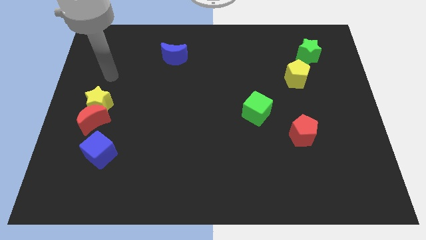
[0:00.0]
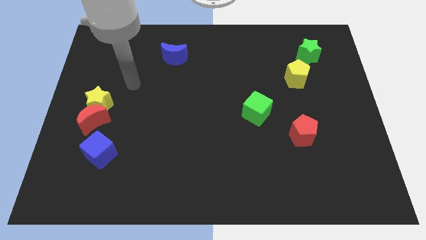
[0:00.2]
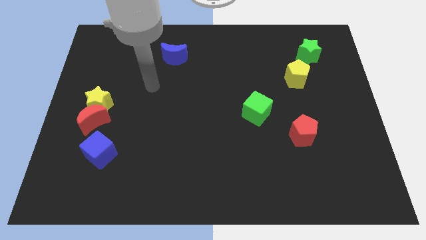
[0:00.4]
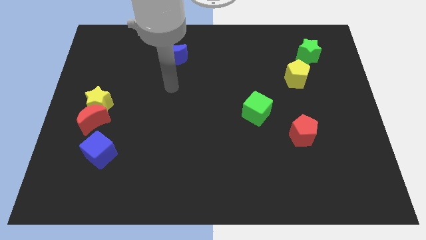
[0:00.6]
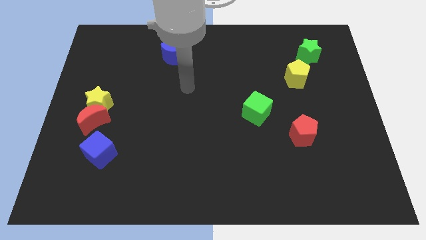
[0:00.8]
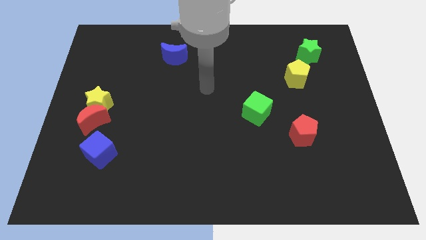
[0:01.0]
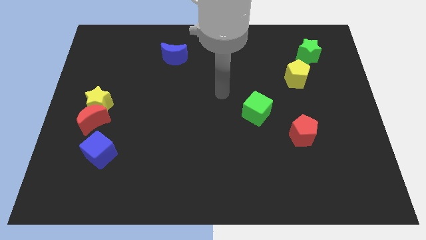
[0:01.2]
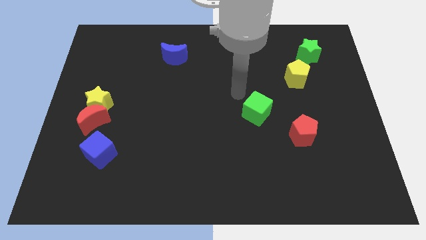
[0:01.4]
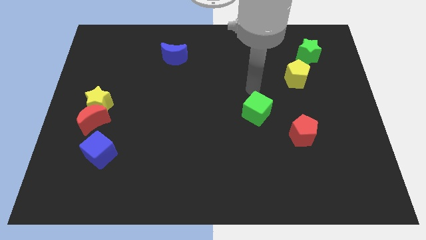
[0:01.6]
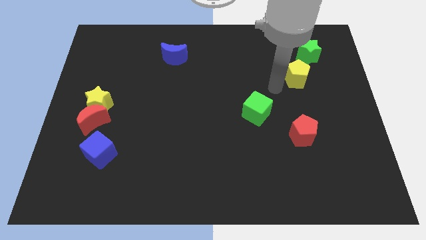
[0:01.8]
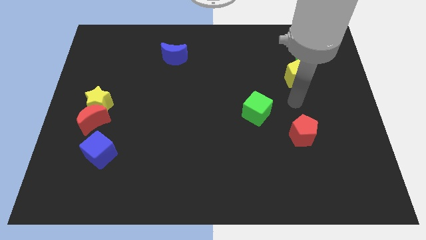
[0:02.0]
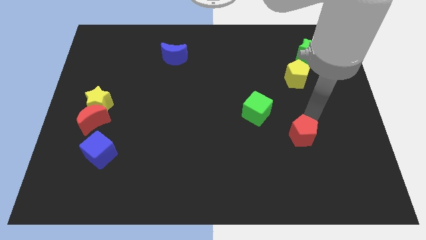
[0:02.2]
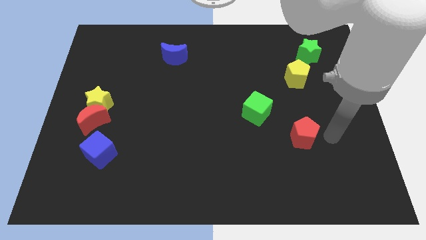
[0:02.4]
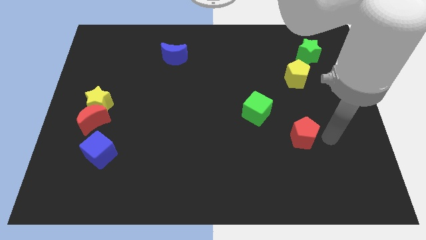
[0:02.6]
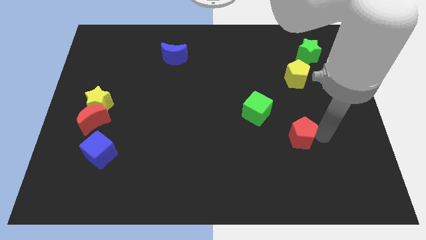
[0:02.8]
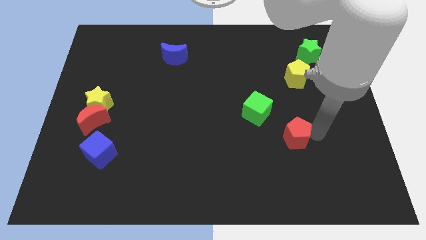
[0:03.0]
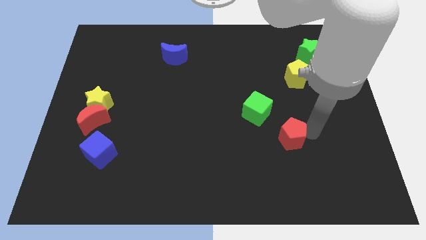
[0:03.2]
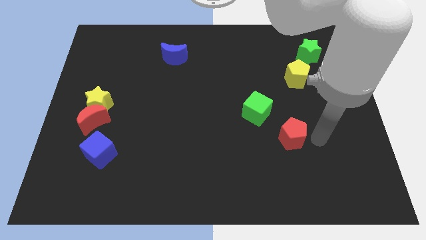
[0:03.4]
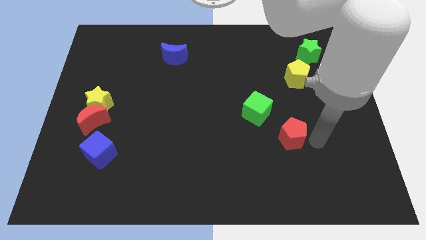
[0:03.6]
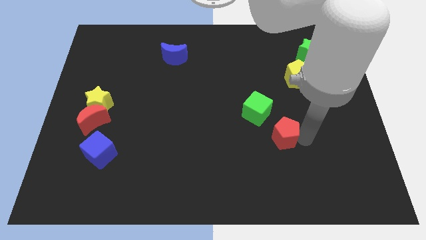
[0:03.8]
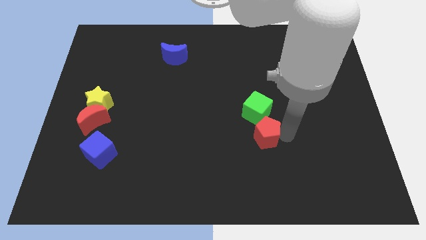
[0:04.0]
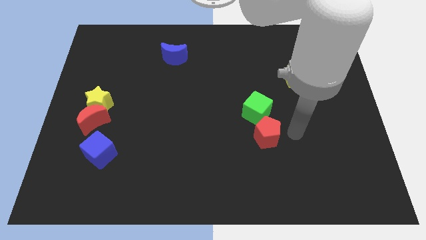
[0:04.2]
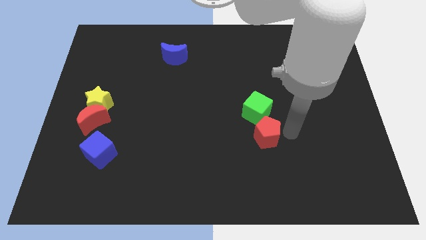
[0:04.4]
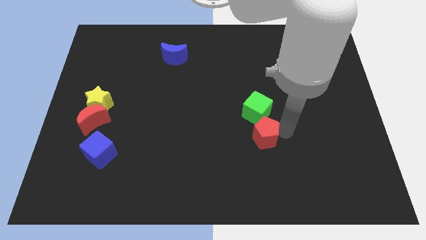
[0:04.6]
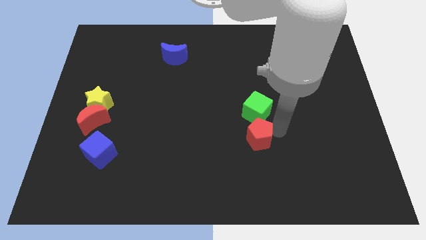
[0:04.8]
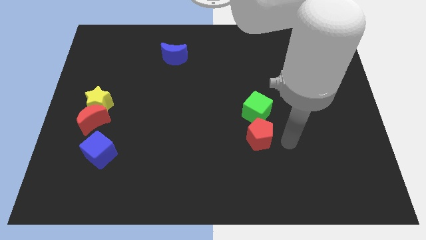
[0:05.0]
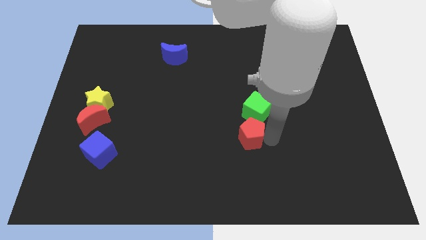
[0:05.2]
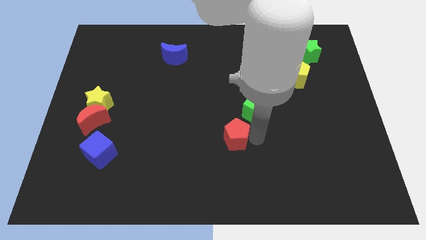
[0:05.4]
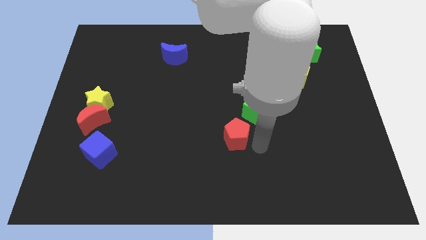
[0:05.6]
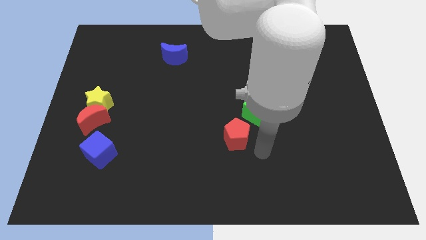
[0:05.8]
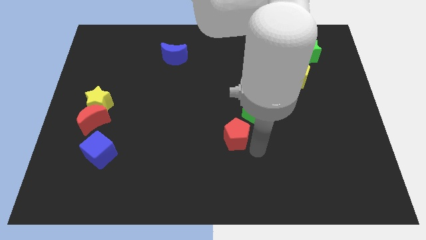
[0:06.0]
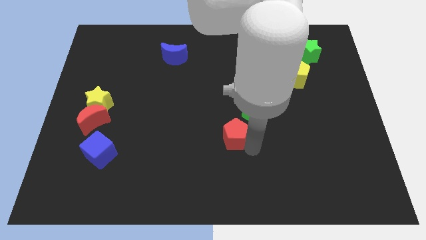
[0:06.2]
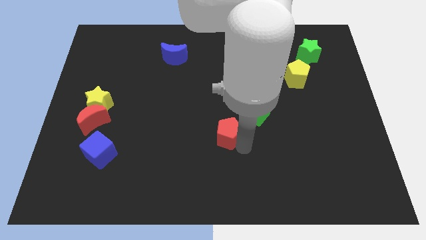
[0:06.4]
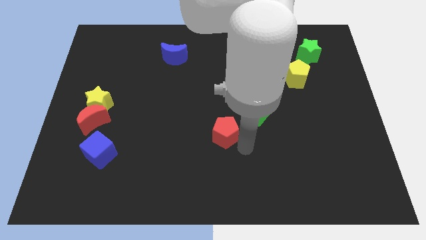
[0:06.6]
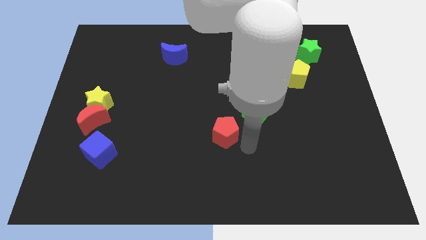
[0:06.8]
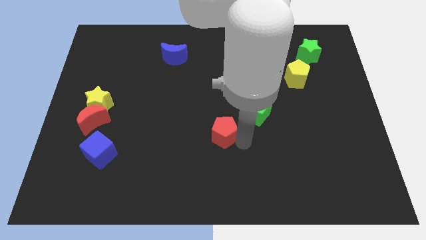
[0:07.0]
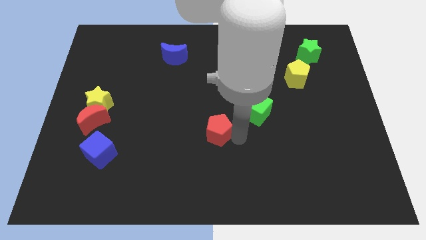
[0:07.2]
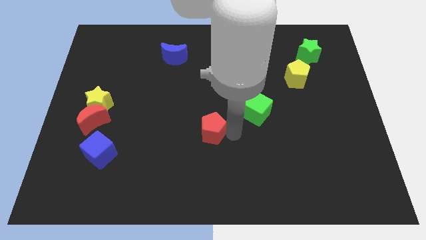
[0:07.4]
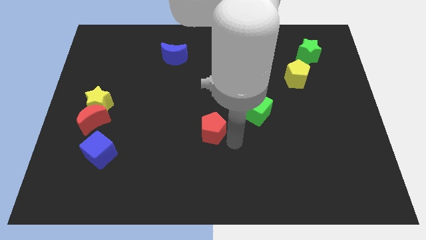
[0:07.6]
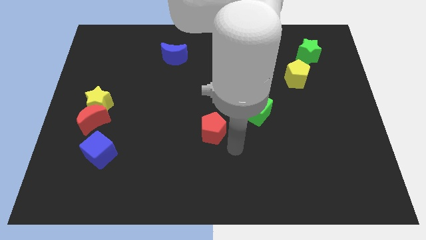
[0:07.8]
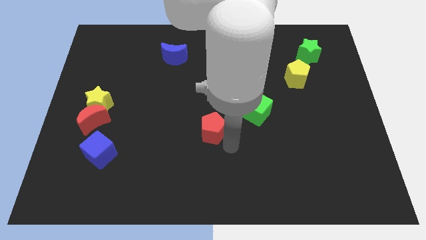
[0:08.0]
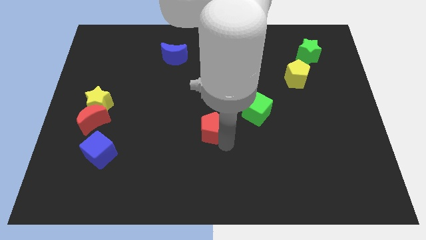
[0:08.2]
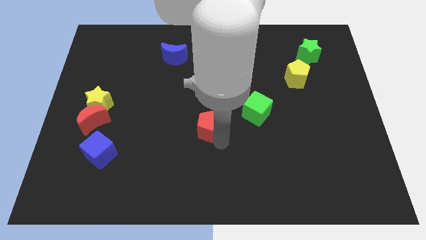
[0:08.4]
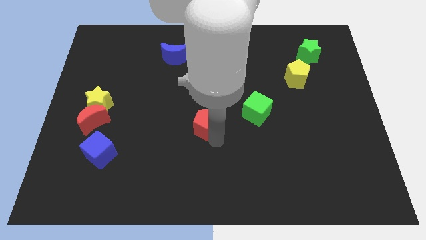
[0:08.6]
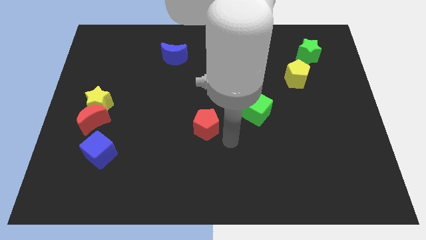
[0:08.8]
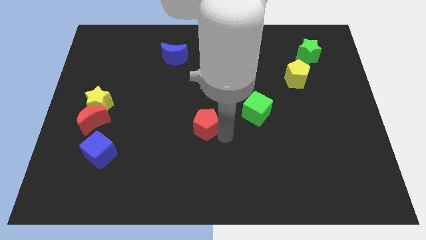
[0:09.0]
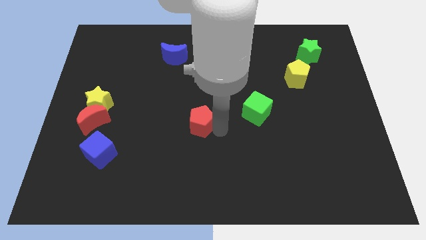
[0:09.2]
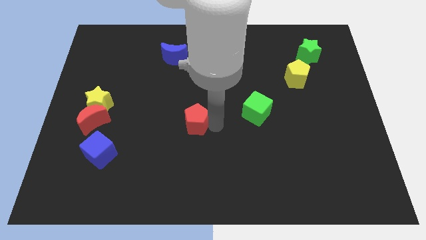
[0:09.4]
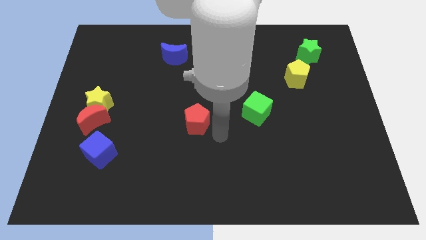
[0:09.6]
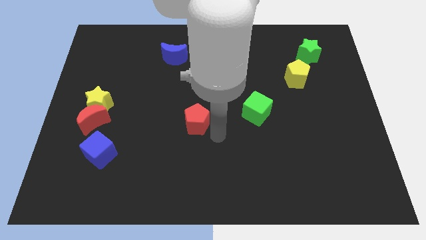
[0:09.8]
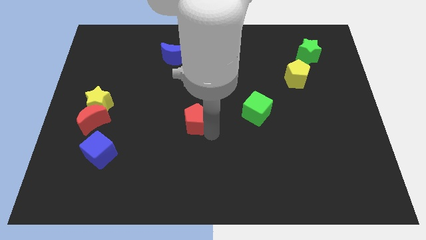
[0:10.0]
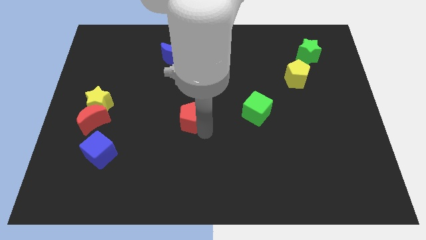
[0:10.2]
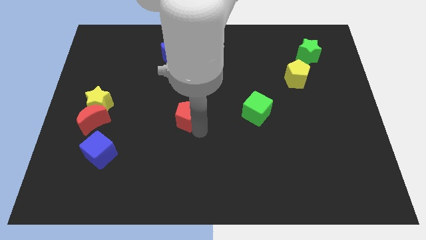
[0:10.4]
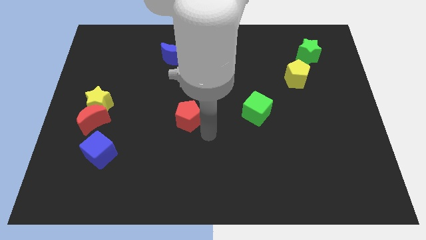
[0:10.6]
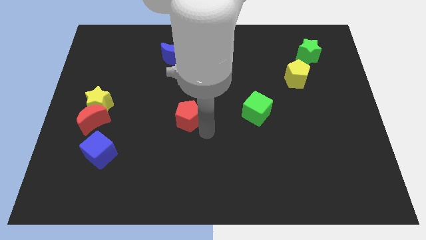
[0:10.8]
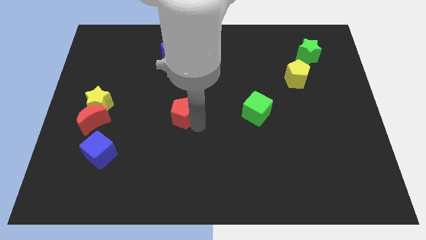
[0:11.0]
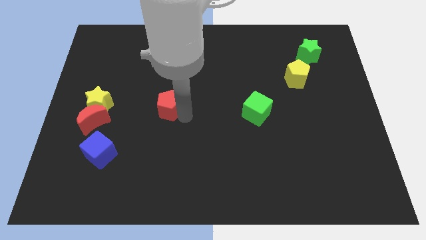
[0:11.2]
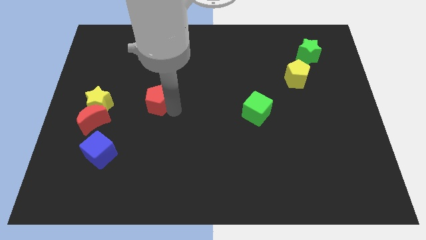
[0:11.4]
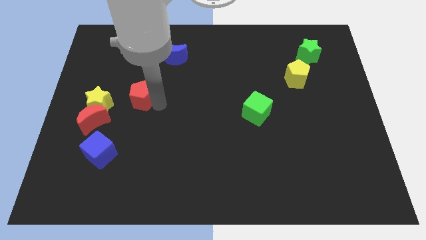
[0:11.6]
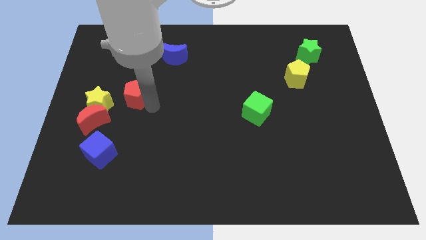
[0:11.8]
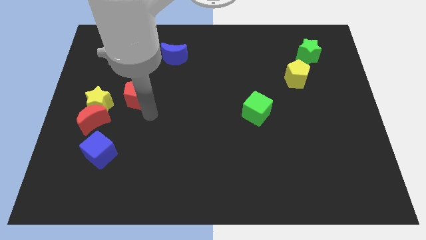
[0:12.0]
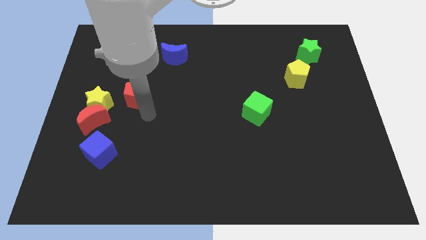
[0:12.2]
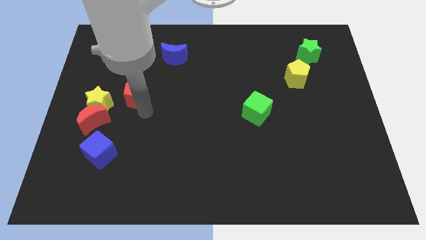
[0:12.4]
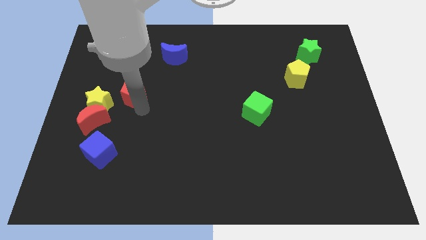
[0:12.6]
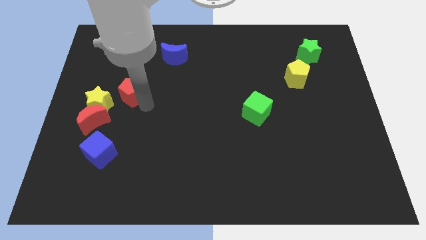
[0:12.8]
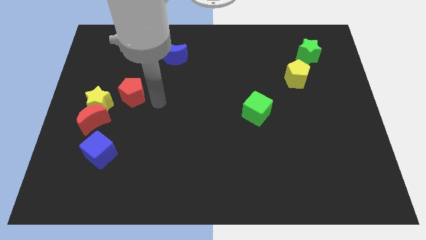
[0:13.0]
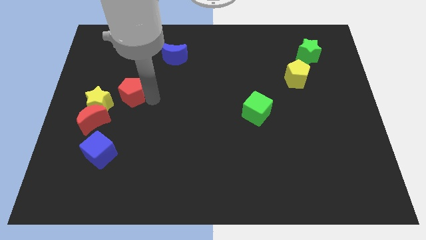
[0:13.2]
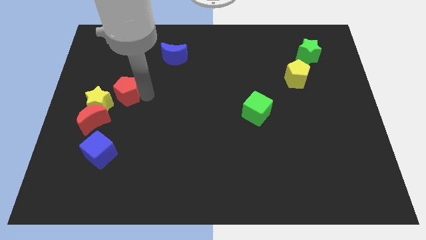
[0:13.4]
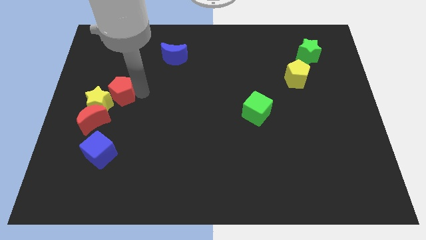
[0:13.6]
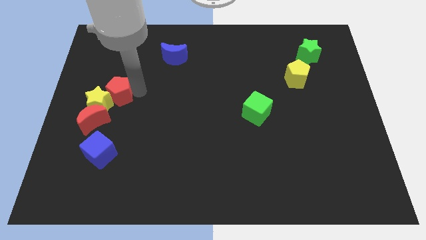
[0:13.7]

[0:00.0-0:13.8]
push the red pentagon to the top of the red moon

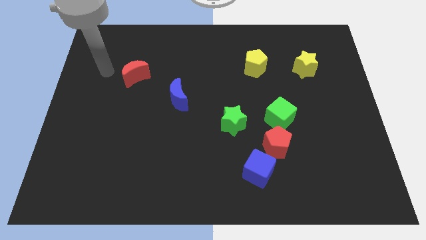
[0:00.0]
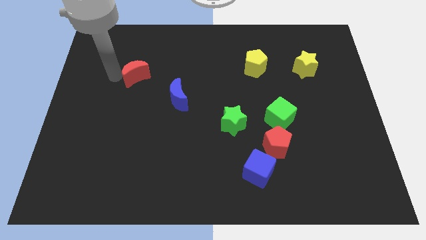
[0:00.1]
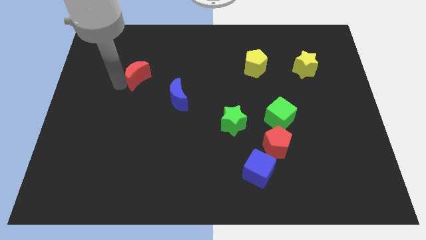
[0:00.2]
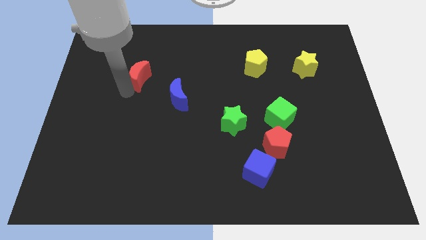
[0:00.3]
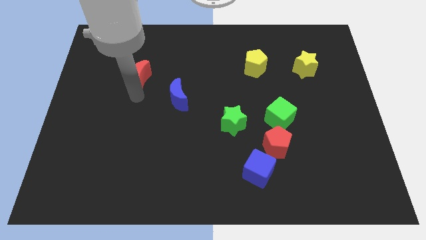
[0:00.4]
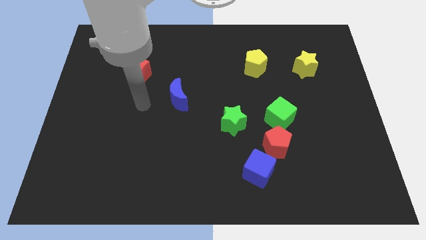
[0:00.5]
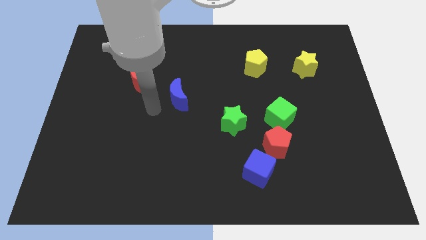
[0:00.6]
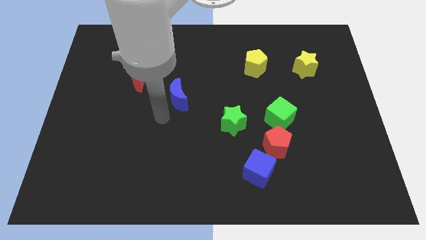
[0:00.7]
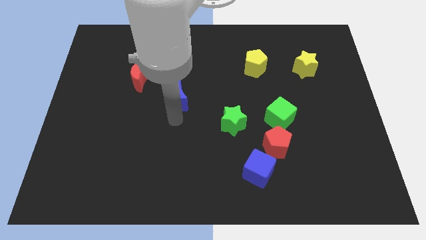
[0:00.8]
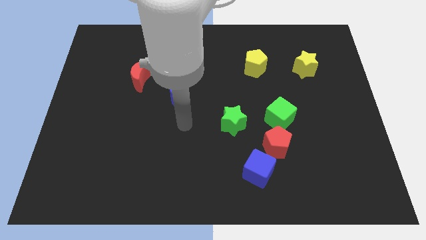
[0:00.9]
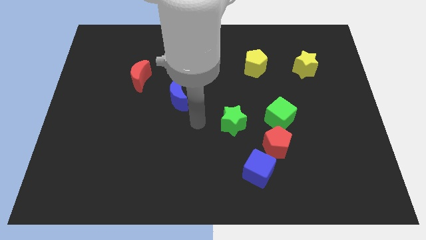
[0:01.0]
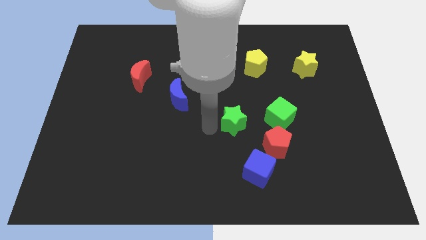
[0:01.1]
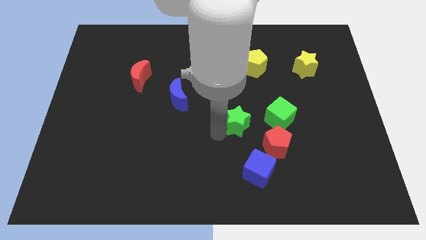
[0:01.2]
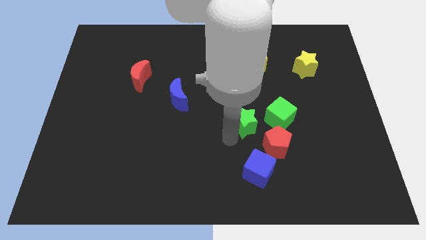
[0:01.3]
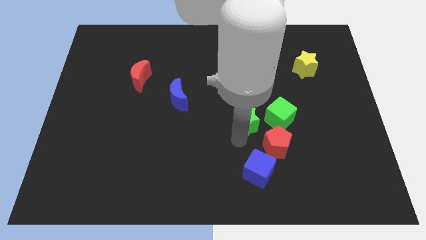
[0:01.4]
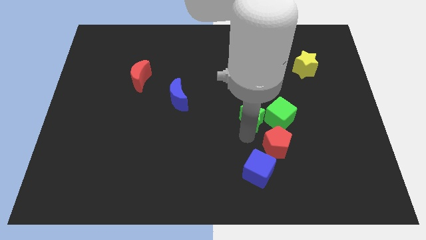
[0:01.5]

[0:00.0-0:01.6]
put the red pentagon below the green star
